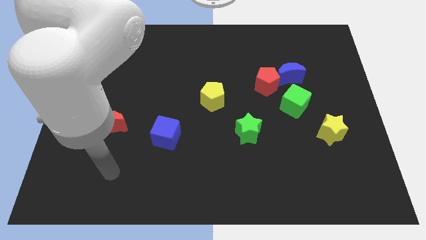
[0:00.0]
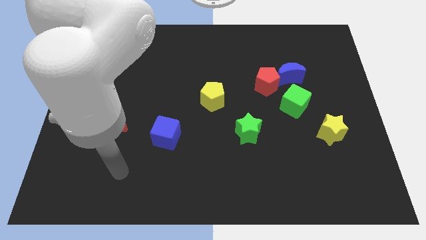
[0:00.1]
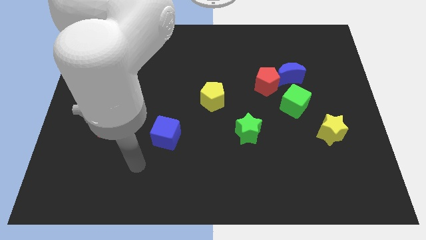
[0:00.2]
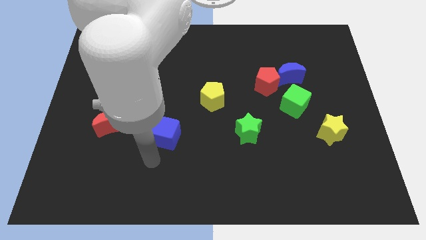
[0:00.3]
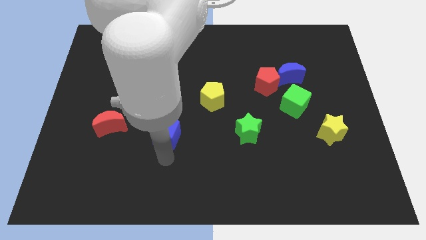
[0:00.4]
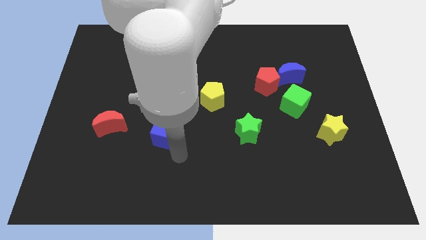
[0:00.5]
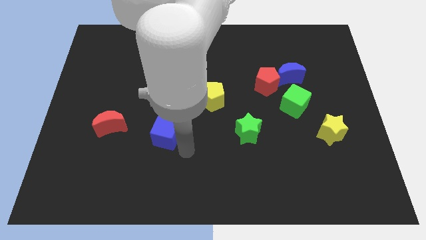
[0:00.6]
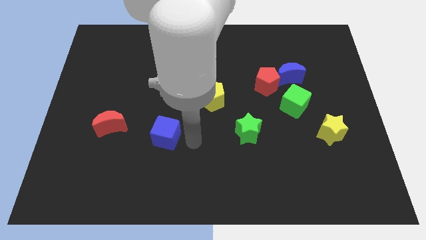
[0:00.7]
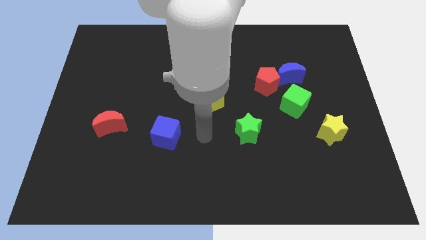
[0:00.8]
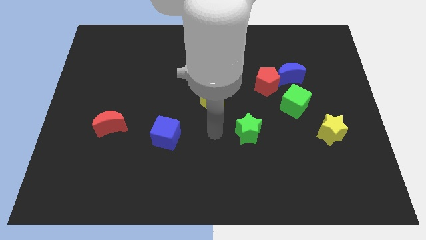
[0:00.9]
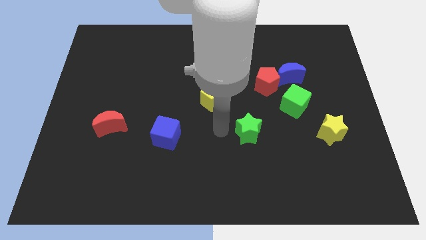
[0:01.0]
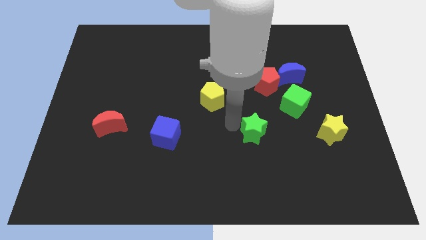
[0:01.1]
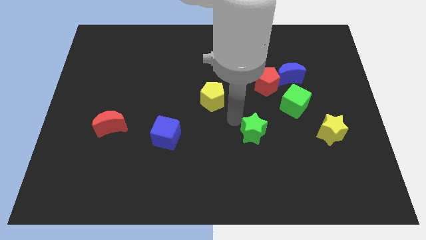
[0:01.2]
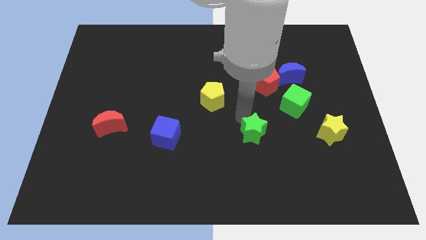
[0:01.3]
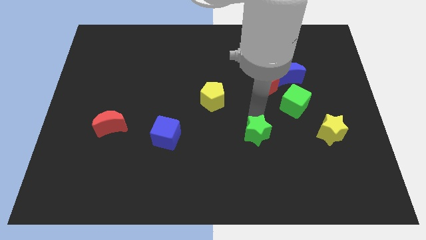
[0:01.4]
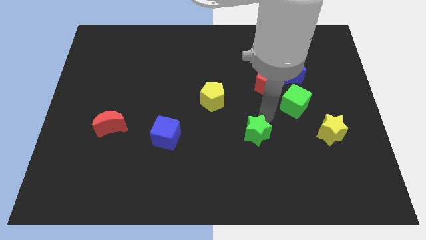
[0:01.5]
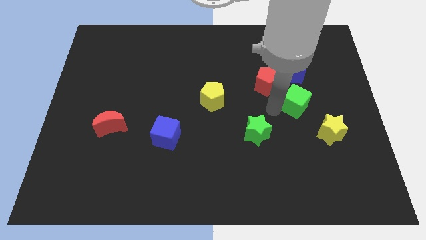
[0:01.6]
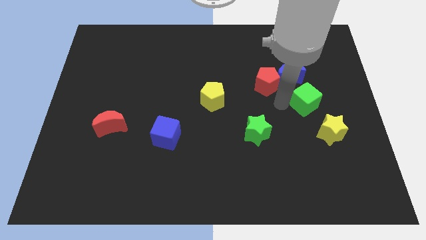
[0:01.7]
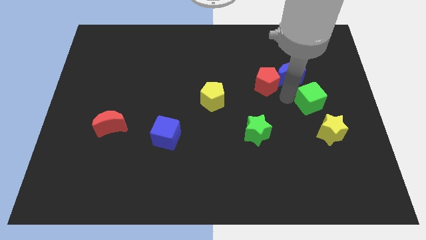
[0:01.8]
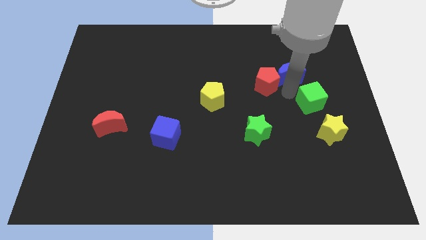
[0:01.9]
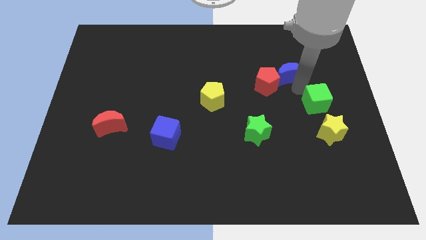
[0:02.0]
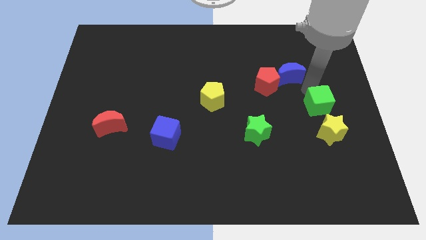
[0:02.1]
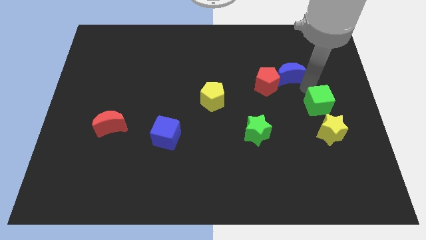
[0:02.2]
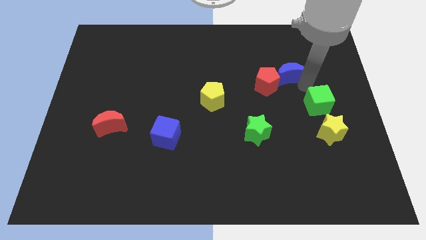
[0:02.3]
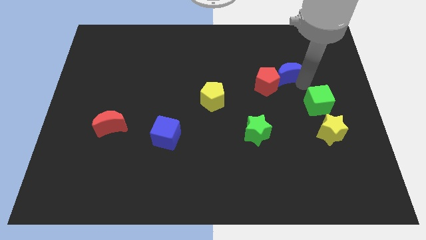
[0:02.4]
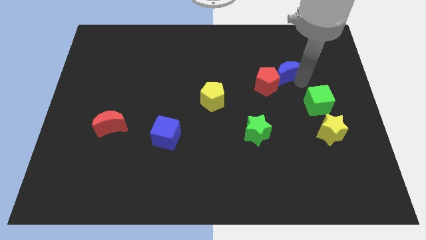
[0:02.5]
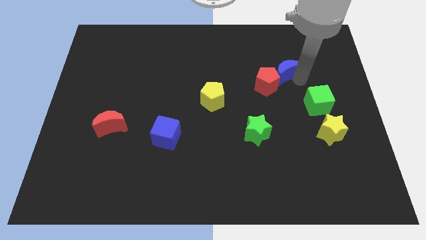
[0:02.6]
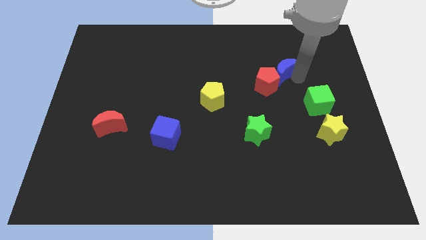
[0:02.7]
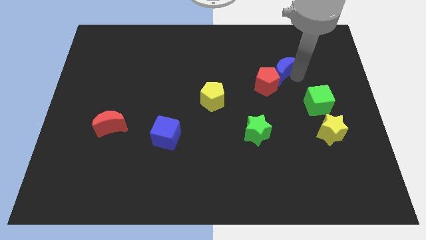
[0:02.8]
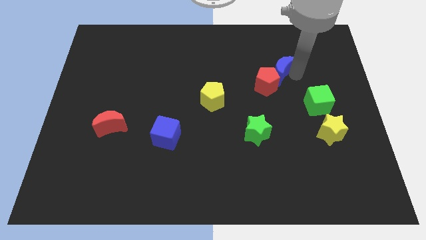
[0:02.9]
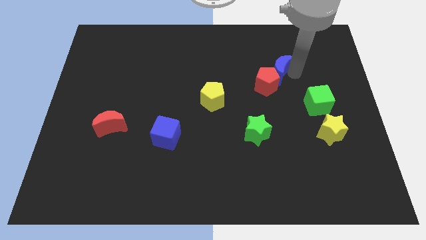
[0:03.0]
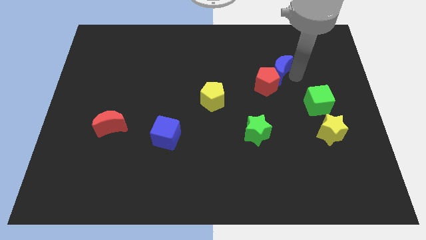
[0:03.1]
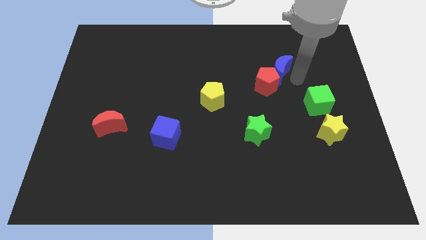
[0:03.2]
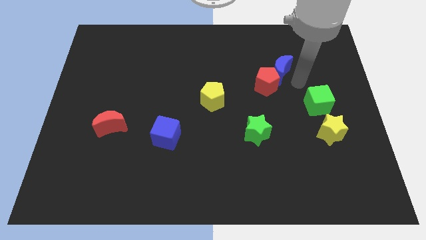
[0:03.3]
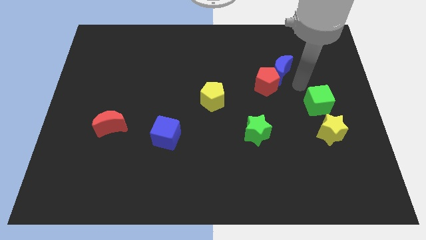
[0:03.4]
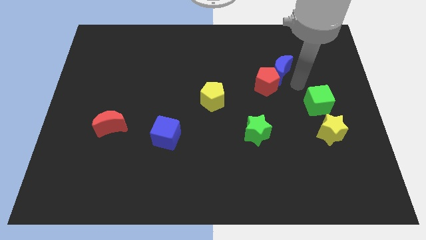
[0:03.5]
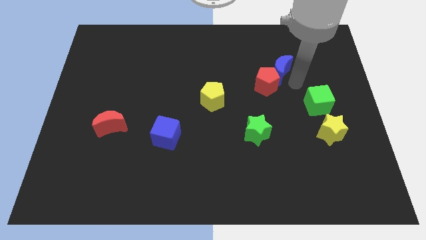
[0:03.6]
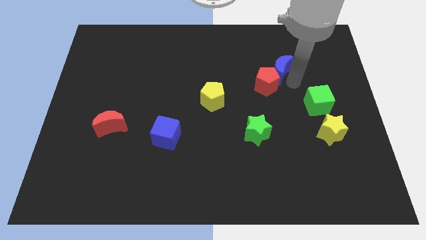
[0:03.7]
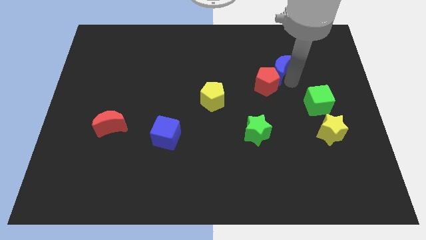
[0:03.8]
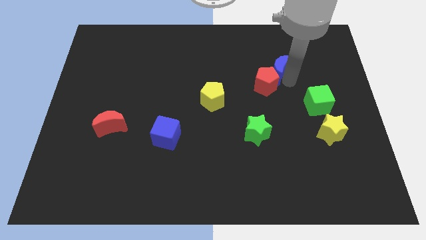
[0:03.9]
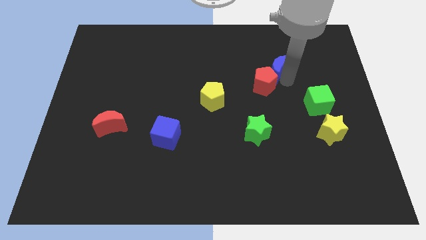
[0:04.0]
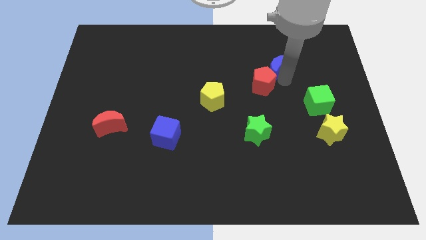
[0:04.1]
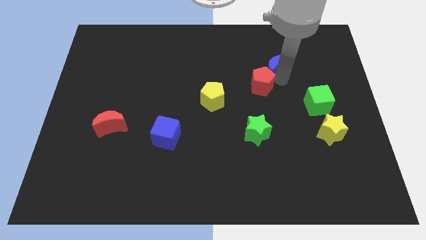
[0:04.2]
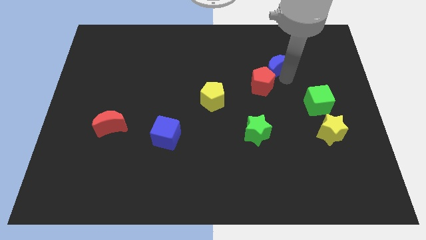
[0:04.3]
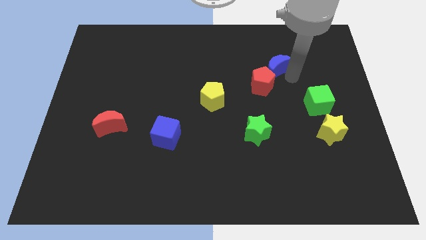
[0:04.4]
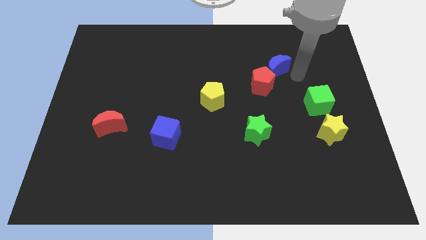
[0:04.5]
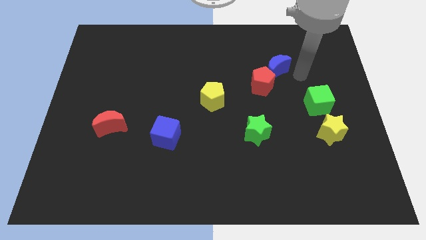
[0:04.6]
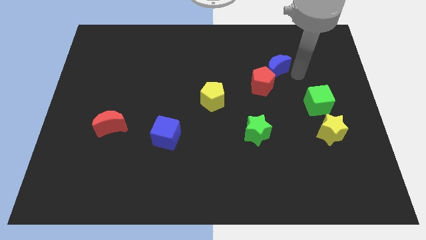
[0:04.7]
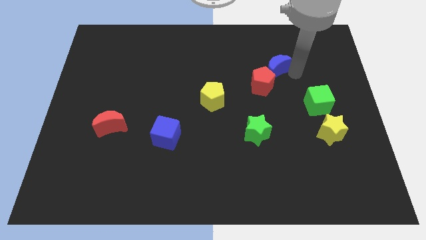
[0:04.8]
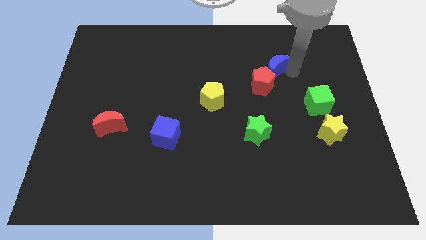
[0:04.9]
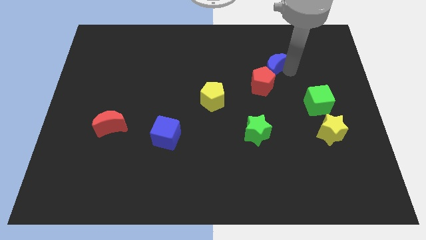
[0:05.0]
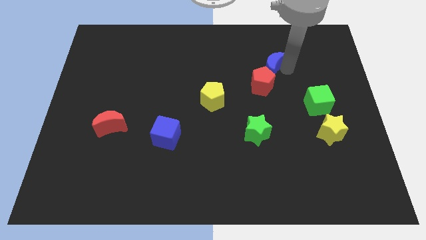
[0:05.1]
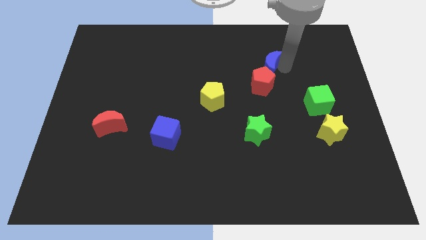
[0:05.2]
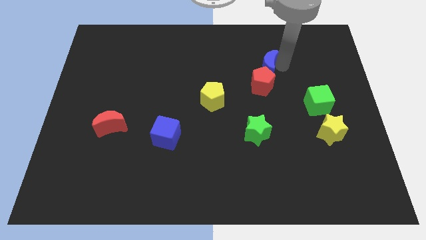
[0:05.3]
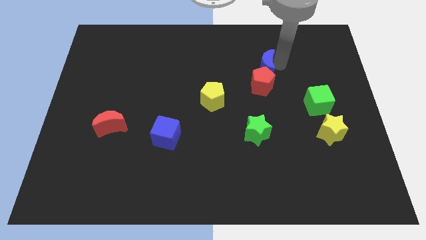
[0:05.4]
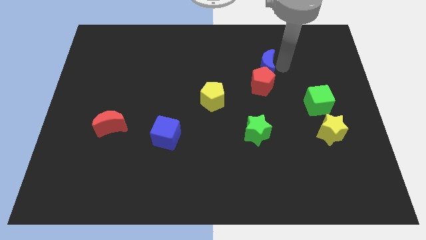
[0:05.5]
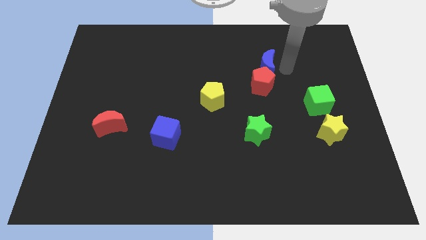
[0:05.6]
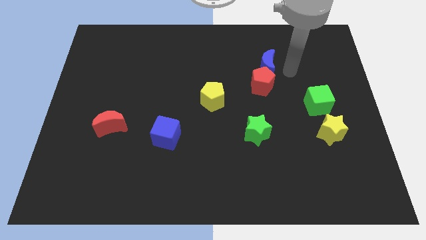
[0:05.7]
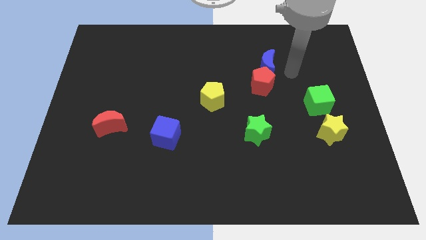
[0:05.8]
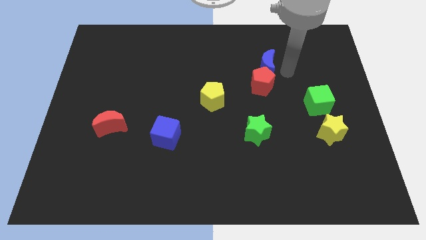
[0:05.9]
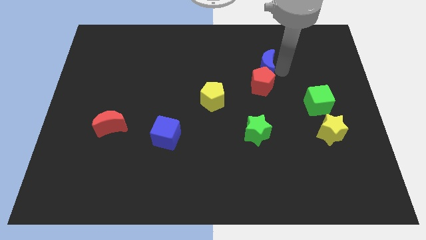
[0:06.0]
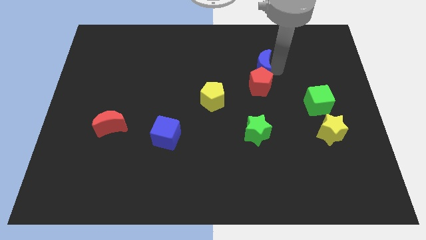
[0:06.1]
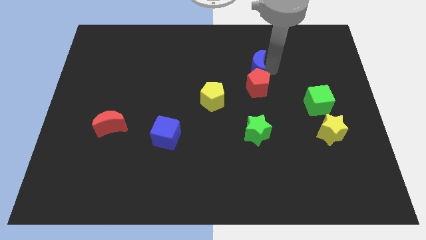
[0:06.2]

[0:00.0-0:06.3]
slightly push the blue moon to the left

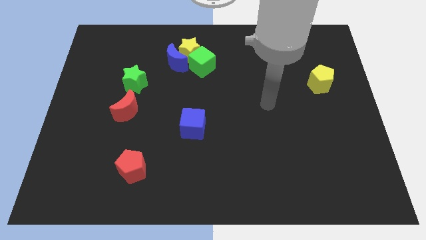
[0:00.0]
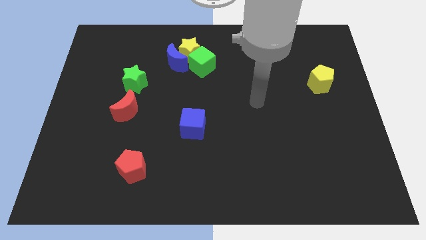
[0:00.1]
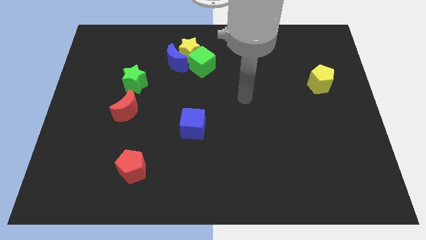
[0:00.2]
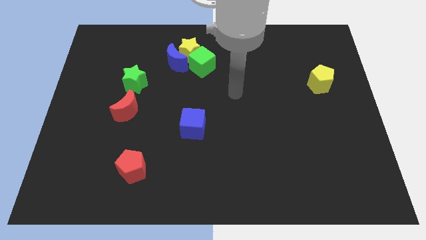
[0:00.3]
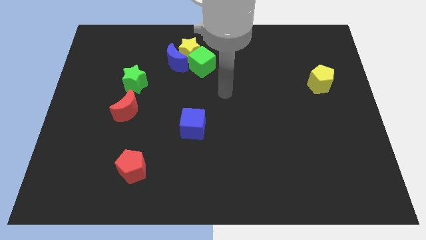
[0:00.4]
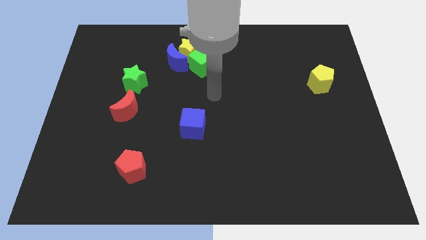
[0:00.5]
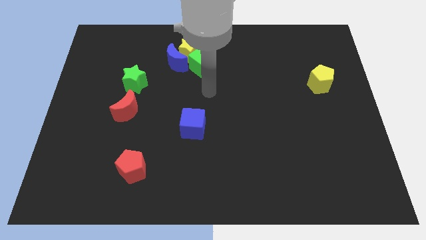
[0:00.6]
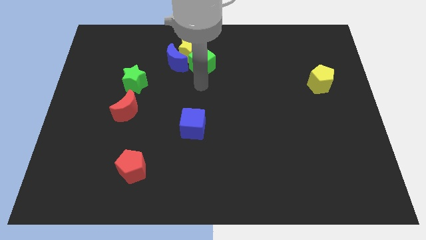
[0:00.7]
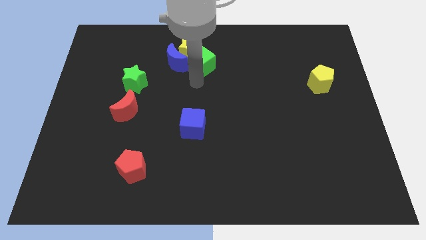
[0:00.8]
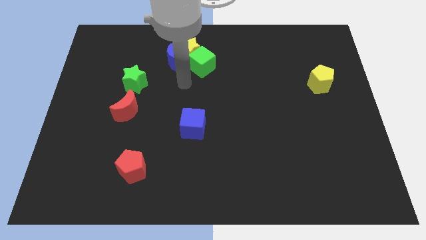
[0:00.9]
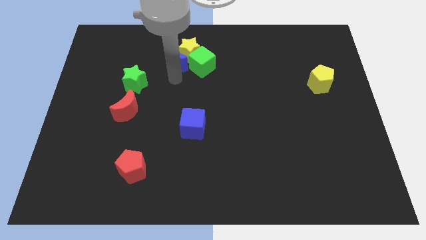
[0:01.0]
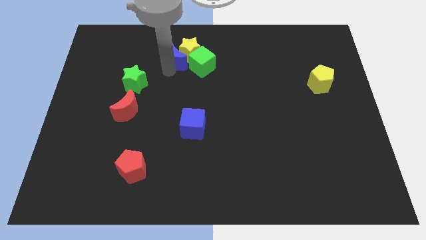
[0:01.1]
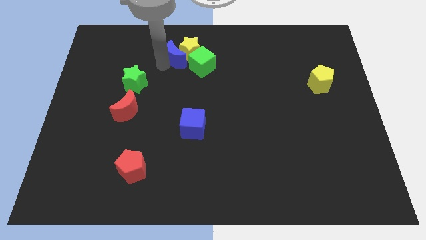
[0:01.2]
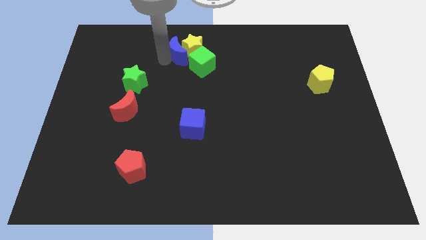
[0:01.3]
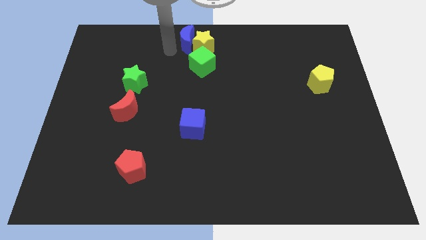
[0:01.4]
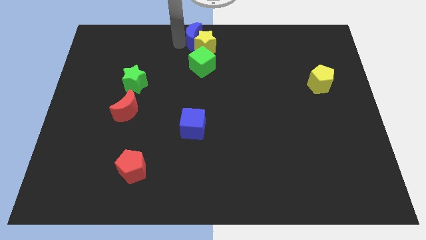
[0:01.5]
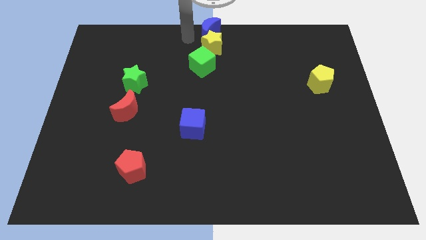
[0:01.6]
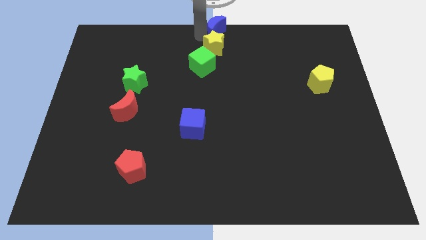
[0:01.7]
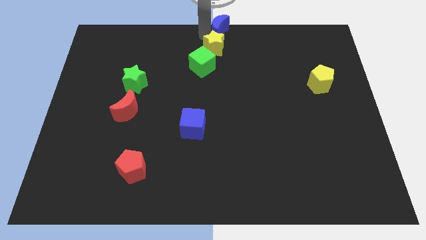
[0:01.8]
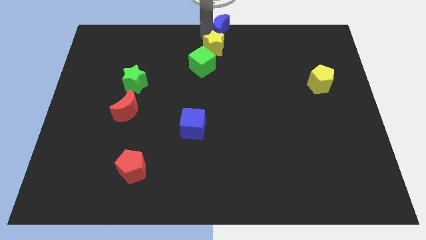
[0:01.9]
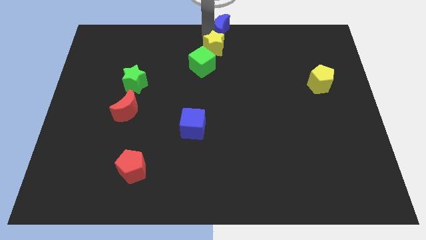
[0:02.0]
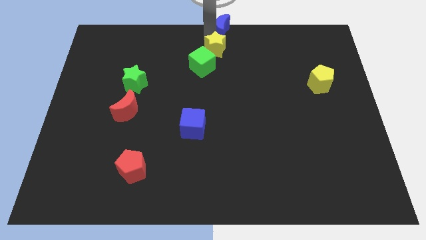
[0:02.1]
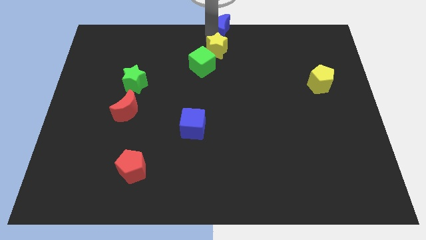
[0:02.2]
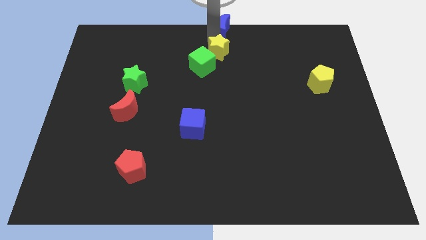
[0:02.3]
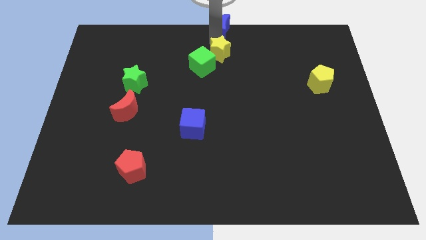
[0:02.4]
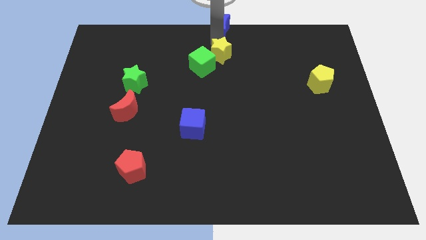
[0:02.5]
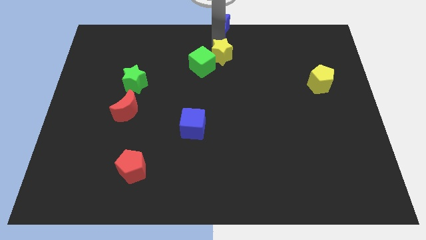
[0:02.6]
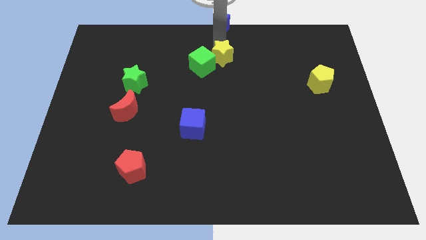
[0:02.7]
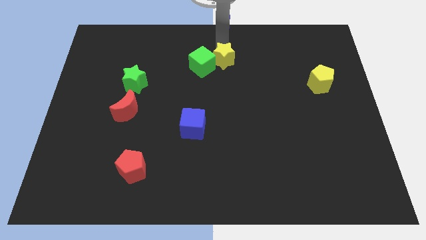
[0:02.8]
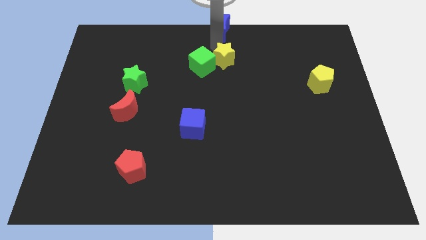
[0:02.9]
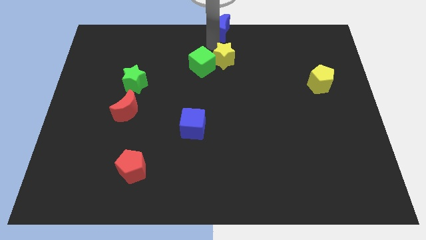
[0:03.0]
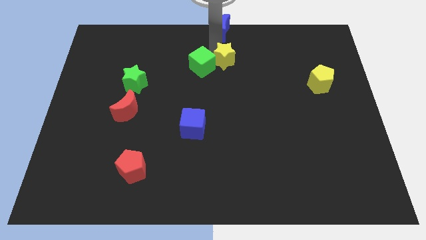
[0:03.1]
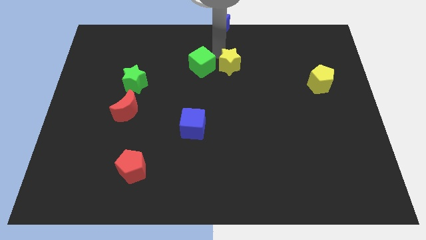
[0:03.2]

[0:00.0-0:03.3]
slightly move the yellow star down and right
